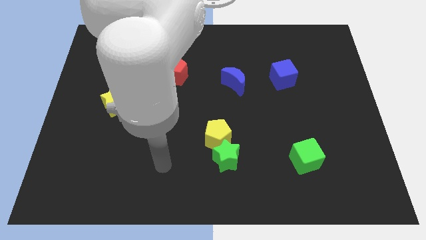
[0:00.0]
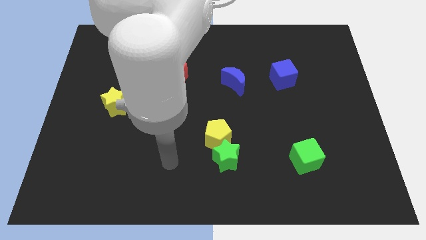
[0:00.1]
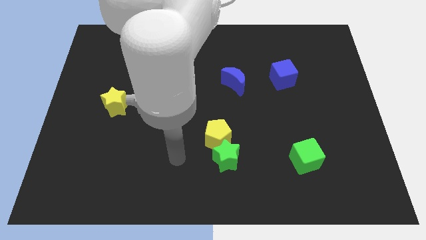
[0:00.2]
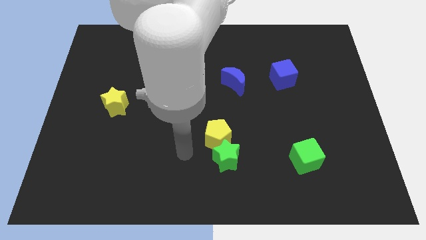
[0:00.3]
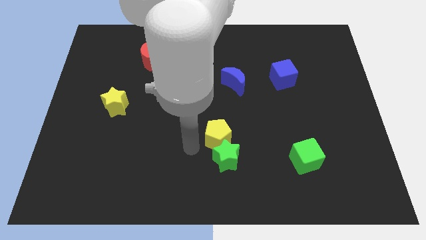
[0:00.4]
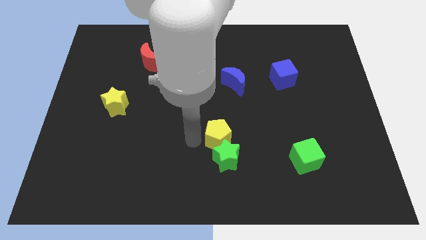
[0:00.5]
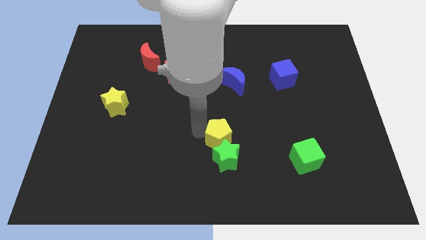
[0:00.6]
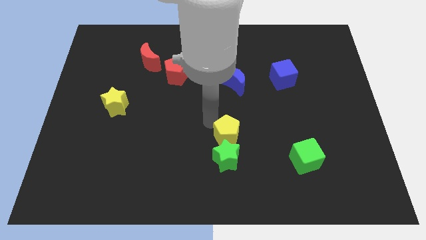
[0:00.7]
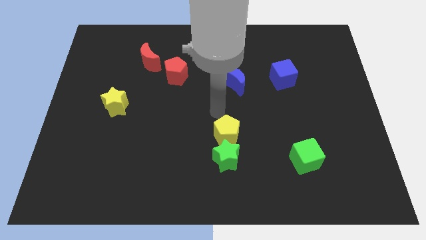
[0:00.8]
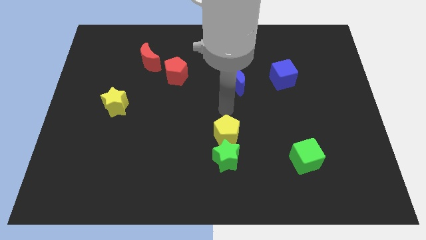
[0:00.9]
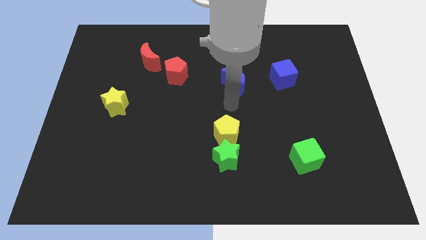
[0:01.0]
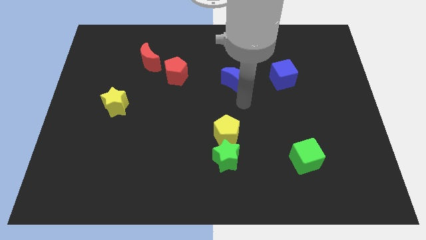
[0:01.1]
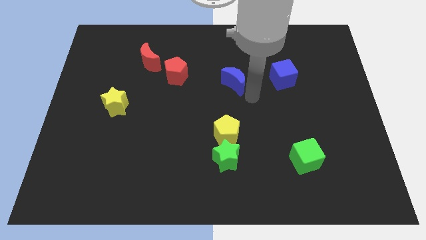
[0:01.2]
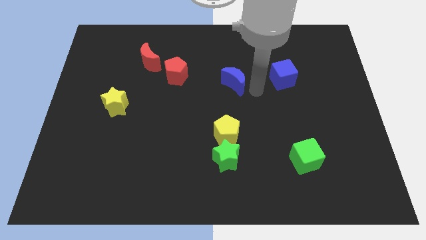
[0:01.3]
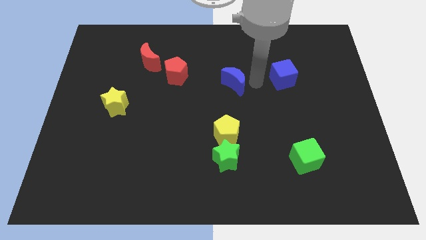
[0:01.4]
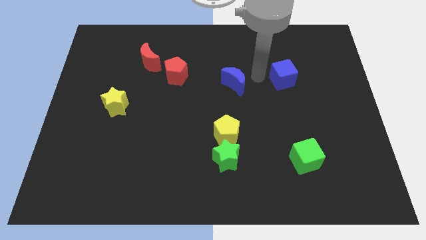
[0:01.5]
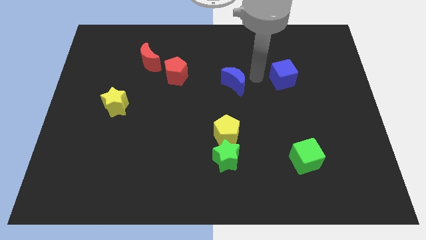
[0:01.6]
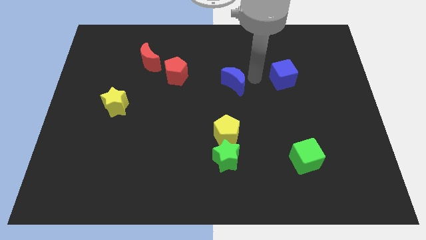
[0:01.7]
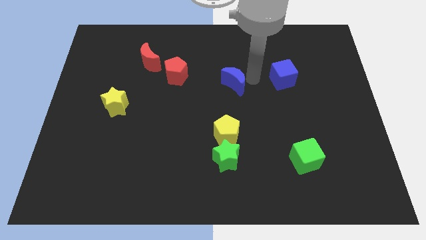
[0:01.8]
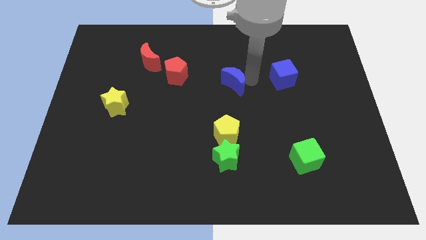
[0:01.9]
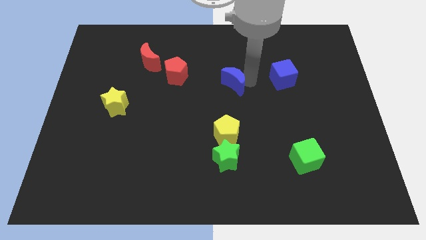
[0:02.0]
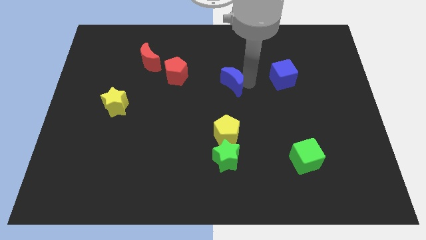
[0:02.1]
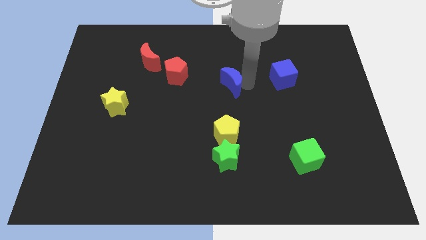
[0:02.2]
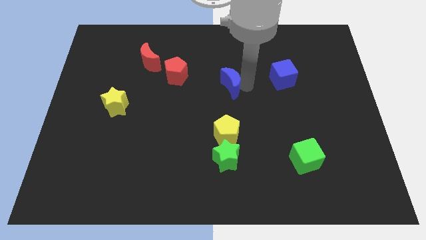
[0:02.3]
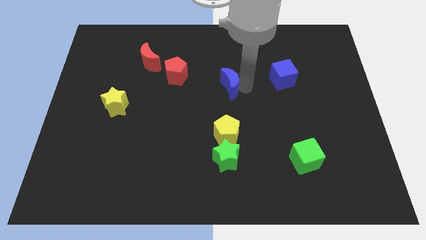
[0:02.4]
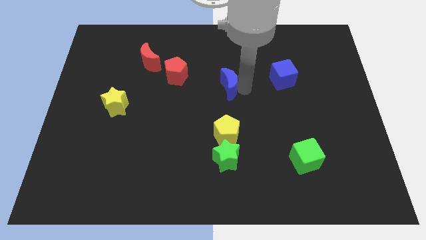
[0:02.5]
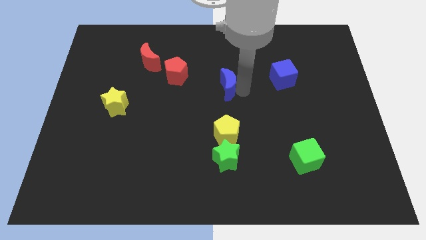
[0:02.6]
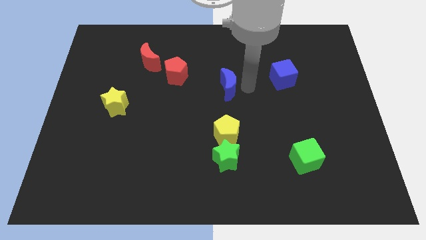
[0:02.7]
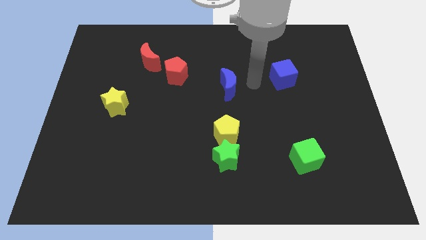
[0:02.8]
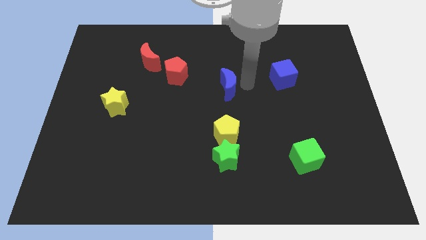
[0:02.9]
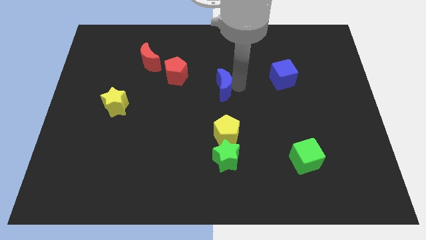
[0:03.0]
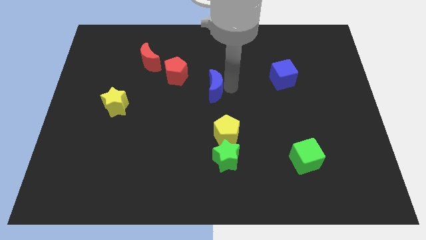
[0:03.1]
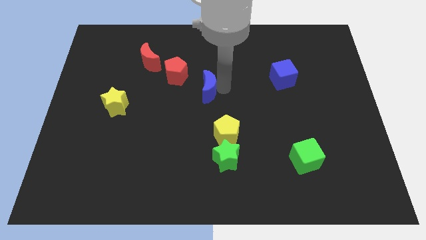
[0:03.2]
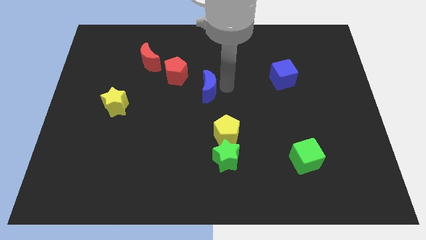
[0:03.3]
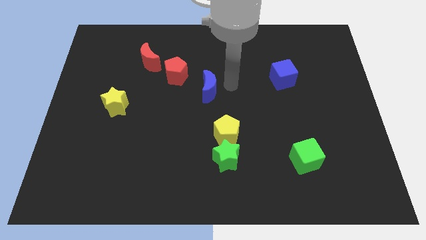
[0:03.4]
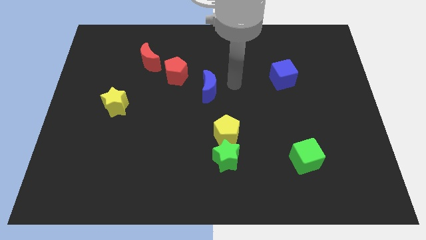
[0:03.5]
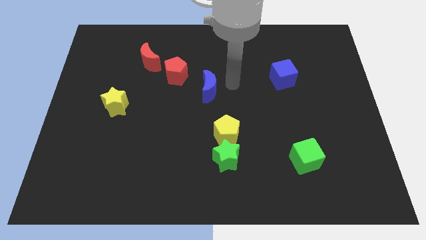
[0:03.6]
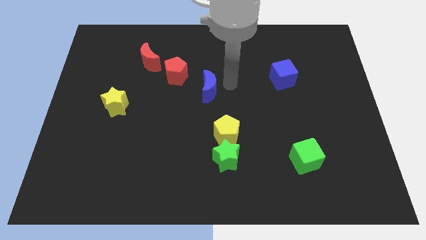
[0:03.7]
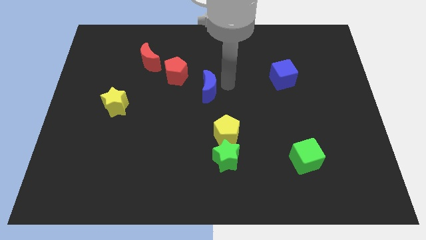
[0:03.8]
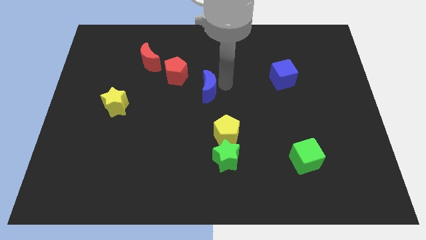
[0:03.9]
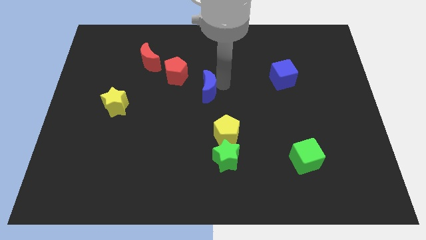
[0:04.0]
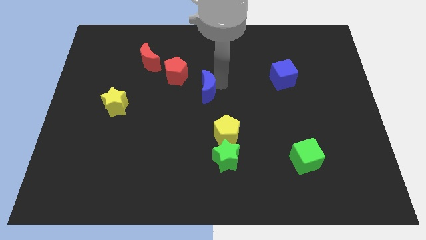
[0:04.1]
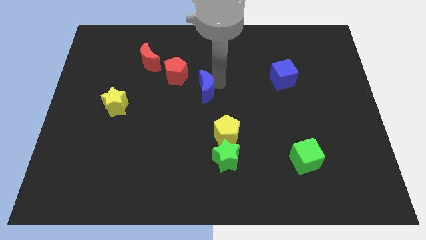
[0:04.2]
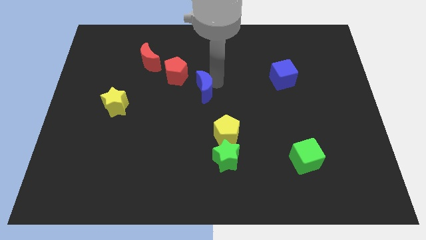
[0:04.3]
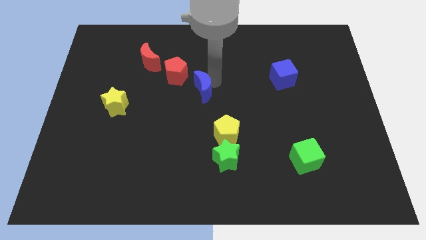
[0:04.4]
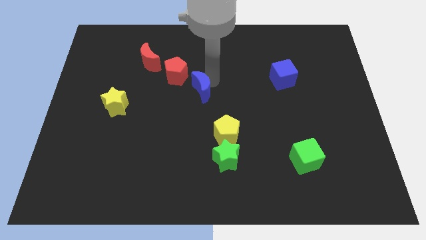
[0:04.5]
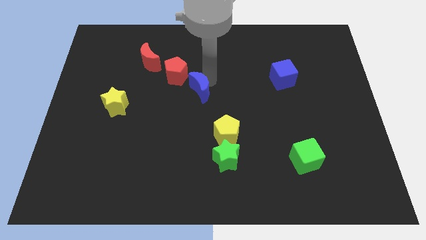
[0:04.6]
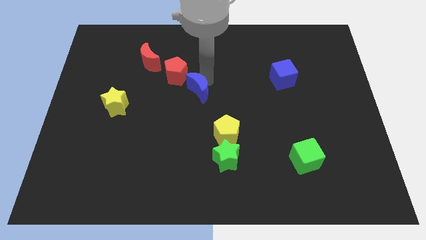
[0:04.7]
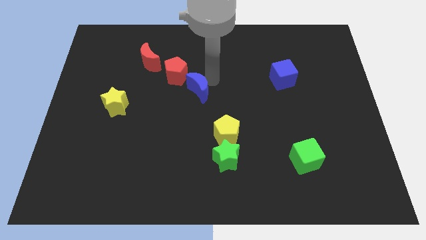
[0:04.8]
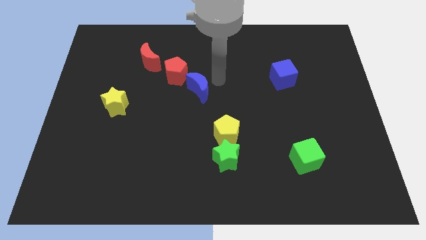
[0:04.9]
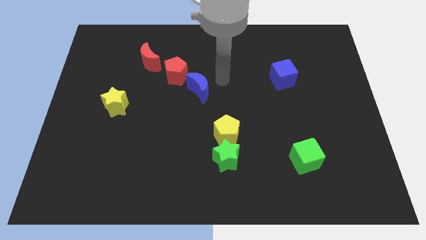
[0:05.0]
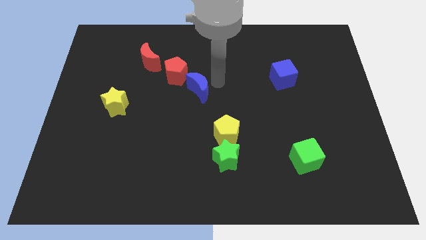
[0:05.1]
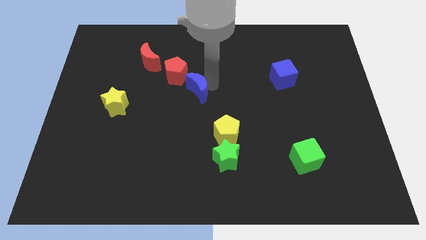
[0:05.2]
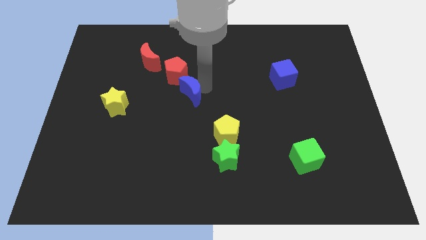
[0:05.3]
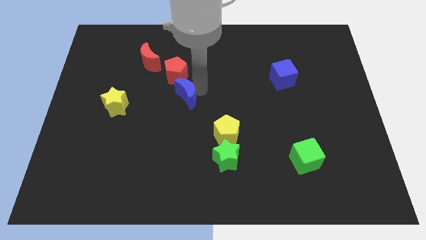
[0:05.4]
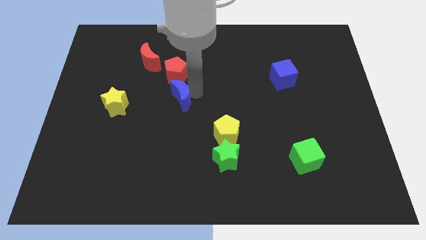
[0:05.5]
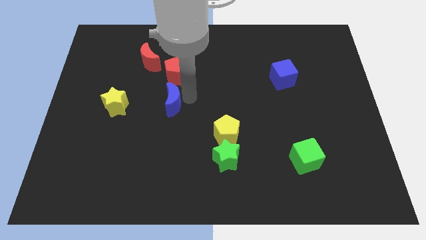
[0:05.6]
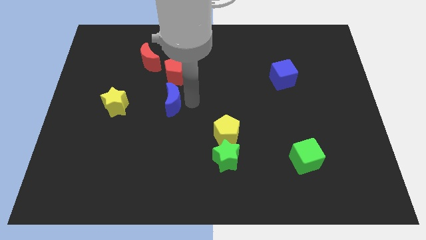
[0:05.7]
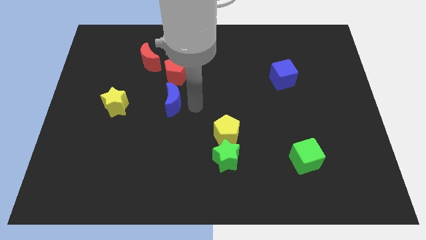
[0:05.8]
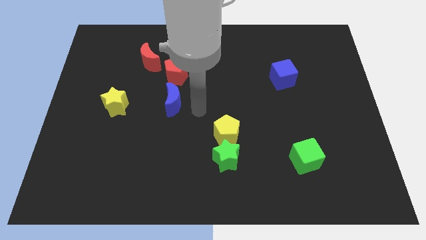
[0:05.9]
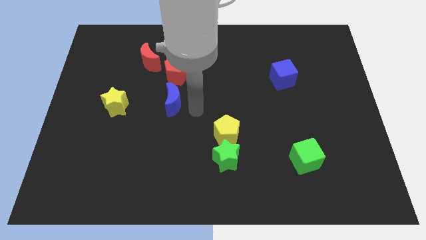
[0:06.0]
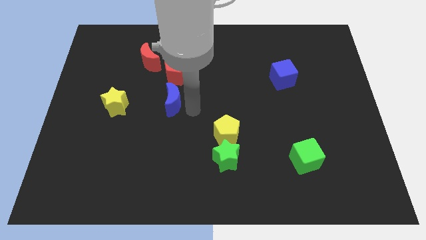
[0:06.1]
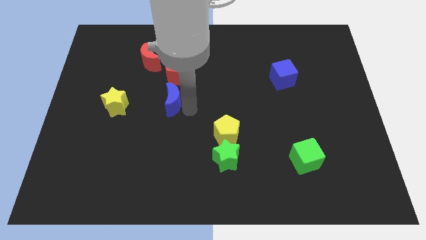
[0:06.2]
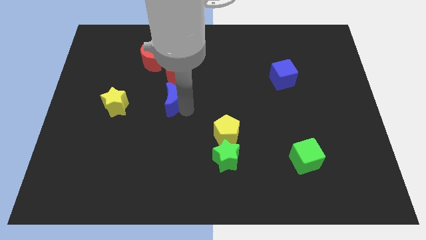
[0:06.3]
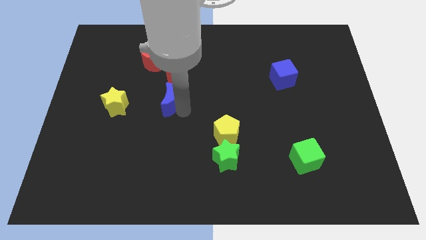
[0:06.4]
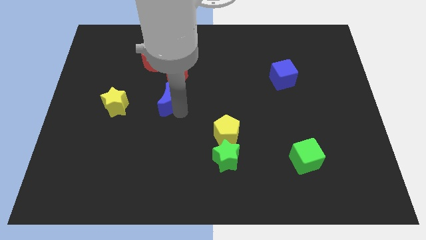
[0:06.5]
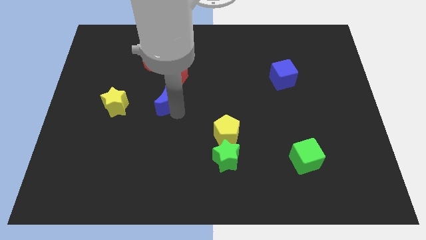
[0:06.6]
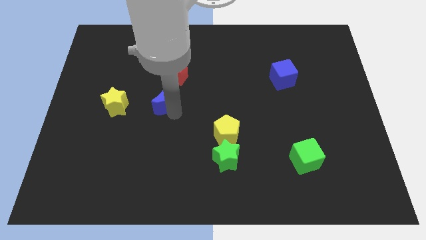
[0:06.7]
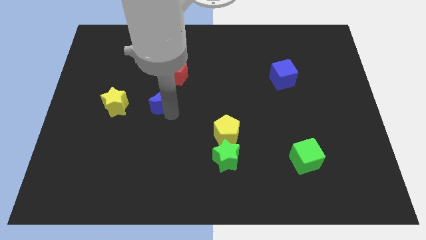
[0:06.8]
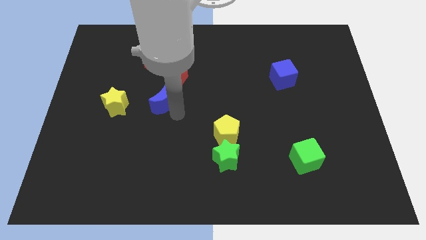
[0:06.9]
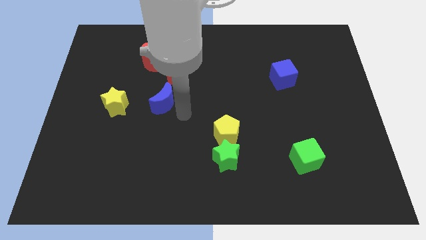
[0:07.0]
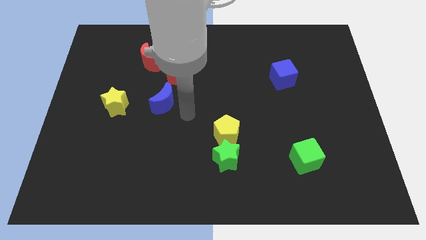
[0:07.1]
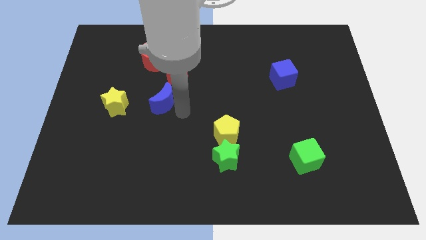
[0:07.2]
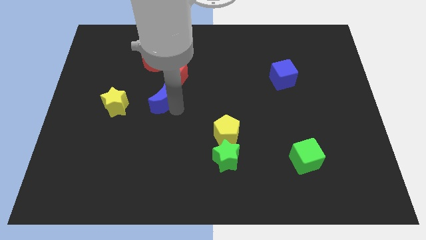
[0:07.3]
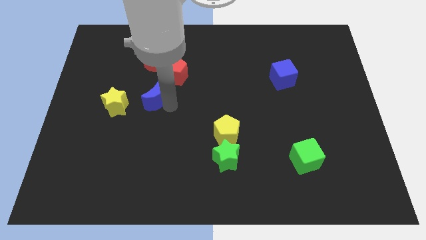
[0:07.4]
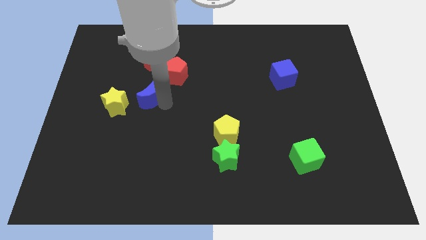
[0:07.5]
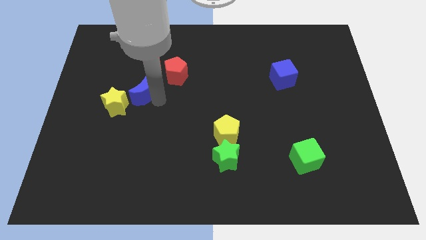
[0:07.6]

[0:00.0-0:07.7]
slide the blue moon to the left

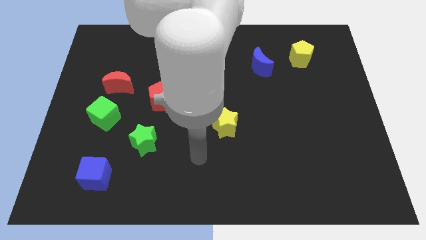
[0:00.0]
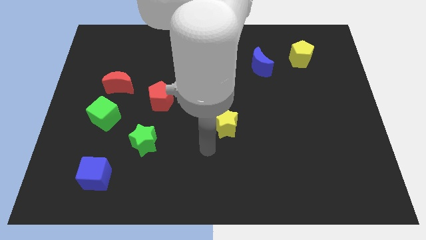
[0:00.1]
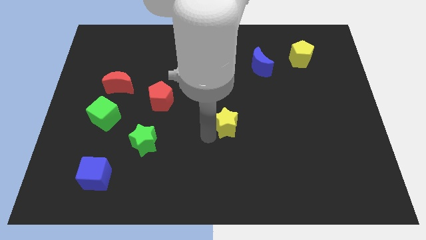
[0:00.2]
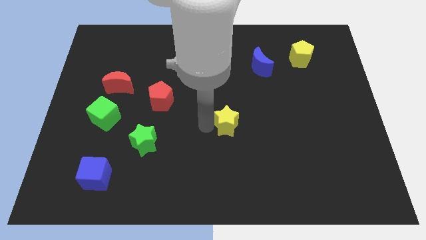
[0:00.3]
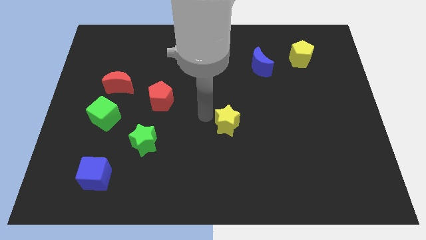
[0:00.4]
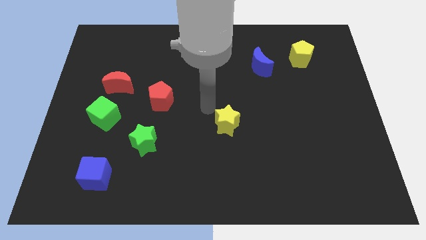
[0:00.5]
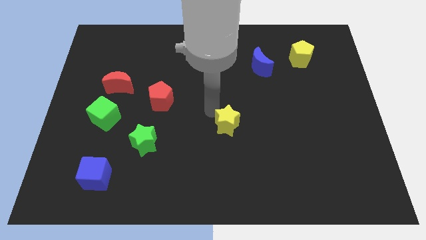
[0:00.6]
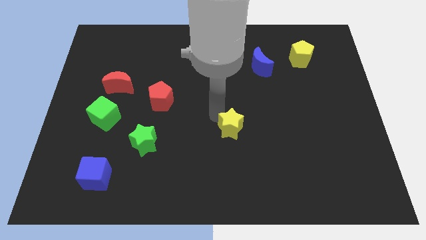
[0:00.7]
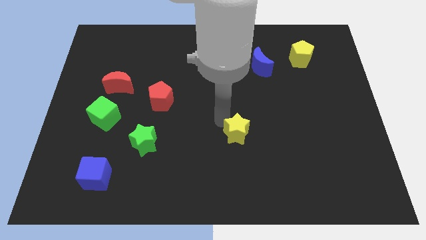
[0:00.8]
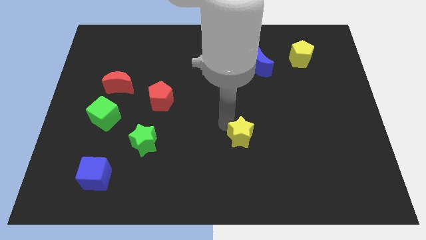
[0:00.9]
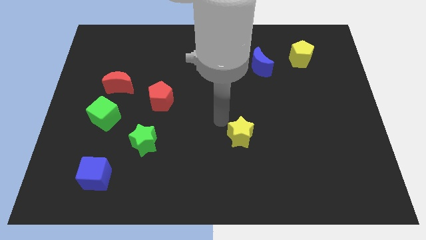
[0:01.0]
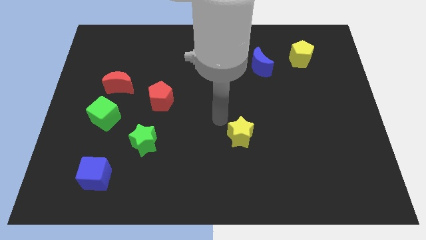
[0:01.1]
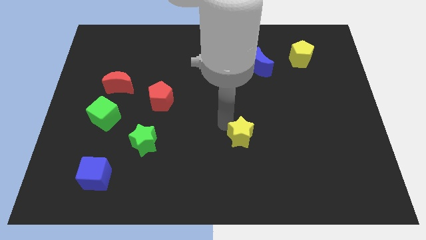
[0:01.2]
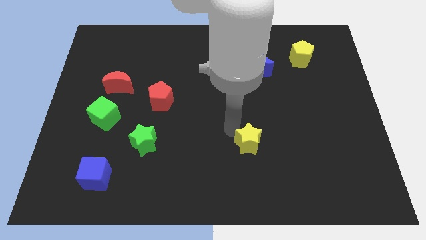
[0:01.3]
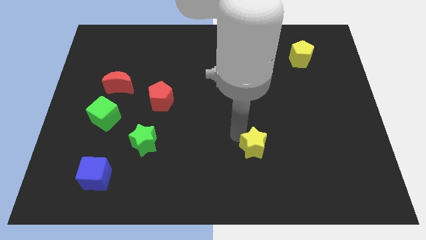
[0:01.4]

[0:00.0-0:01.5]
slightly move the yellow star downwards and to the right diagonally
